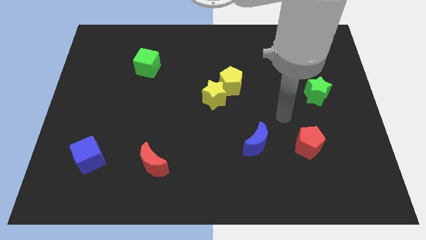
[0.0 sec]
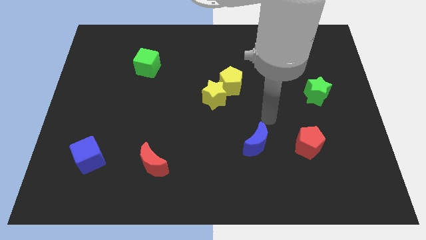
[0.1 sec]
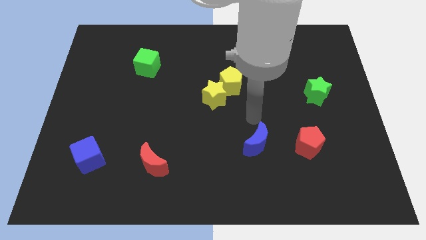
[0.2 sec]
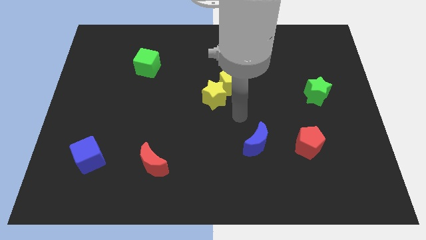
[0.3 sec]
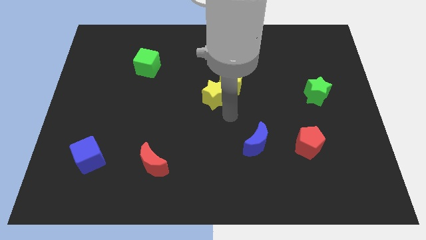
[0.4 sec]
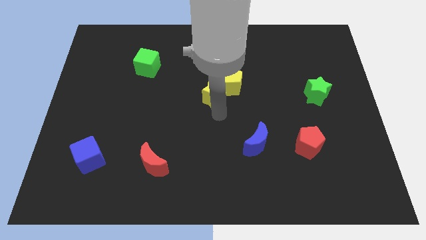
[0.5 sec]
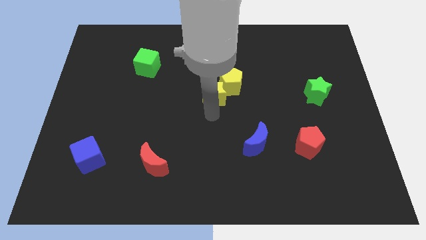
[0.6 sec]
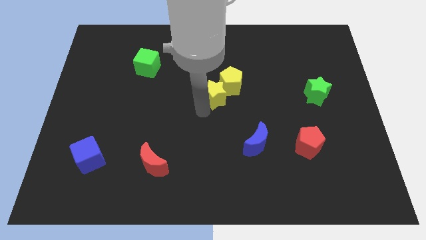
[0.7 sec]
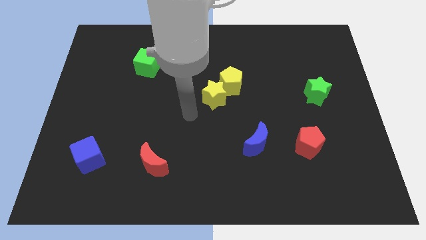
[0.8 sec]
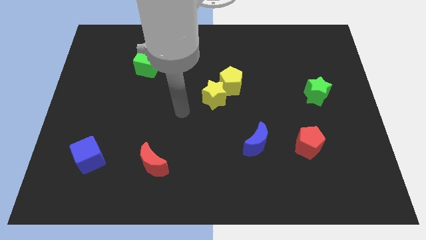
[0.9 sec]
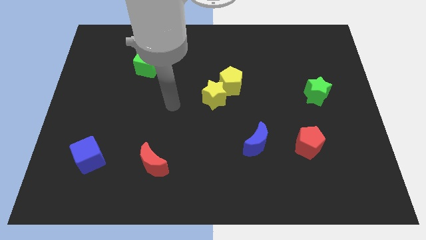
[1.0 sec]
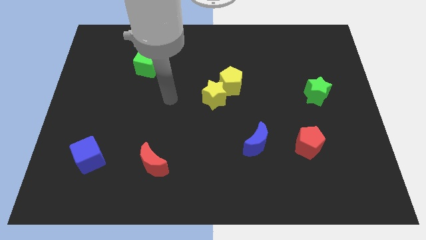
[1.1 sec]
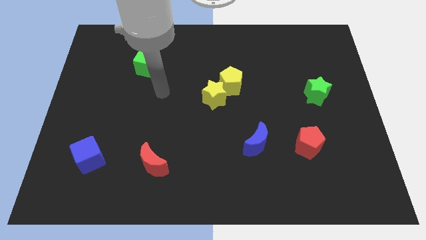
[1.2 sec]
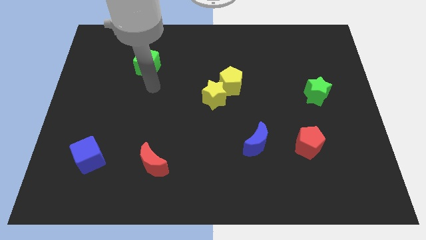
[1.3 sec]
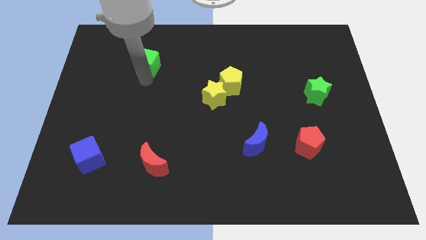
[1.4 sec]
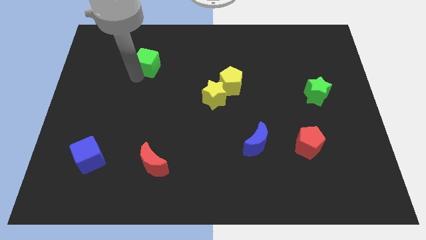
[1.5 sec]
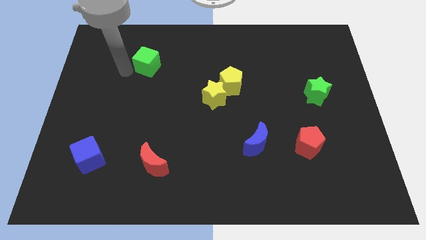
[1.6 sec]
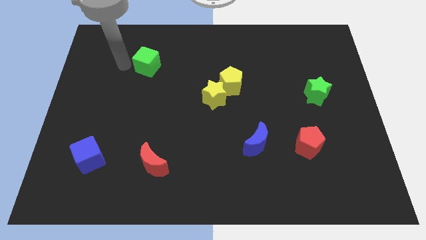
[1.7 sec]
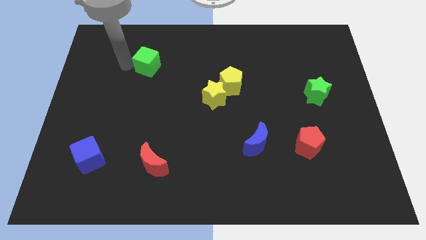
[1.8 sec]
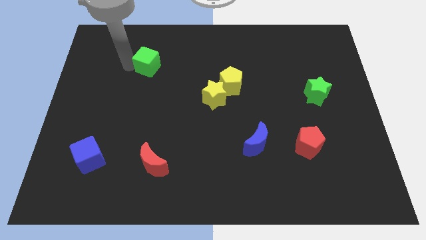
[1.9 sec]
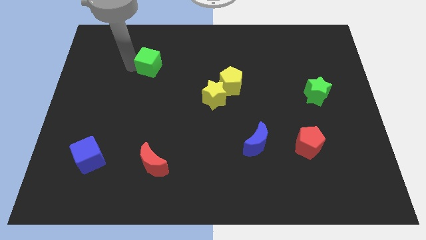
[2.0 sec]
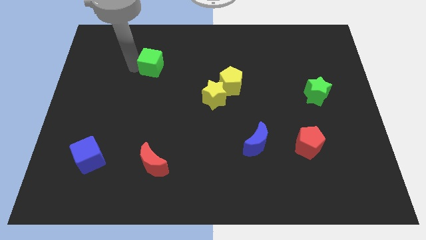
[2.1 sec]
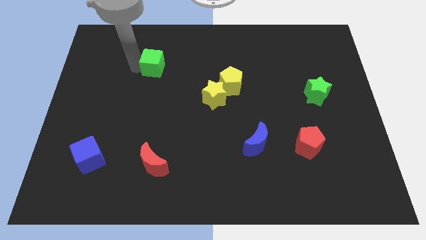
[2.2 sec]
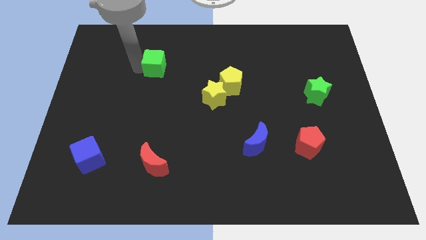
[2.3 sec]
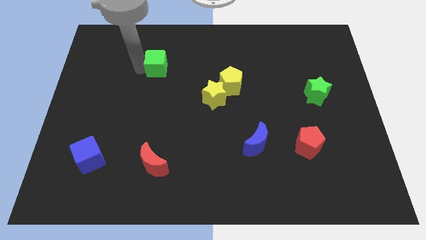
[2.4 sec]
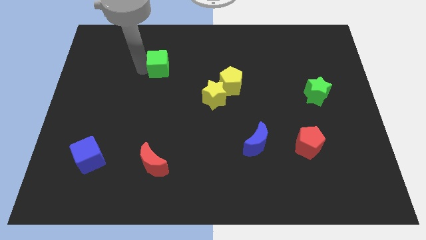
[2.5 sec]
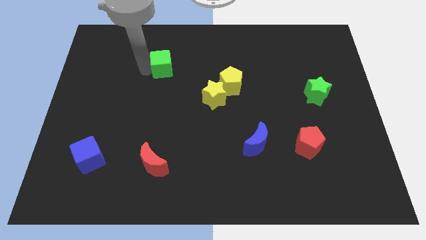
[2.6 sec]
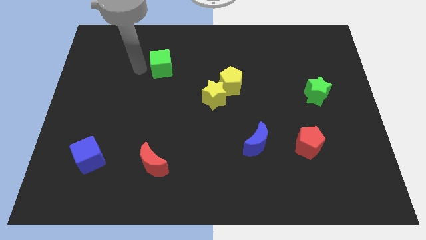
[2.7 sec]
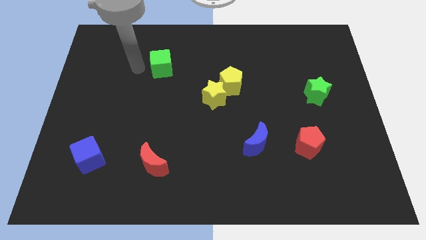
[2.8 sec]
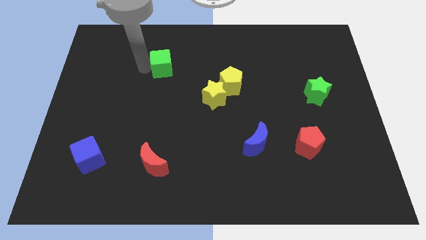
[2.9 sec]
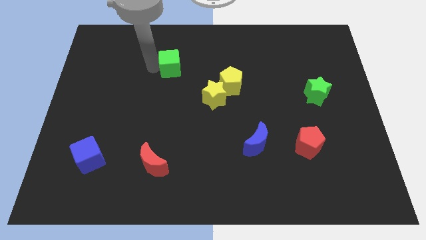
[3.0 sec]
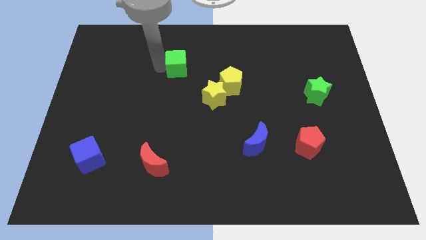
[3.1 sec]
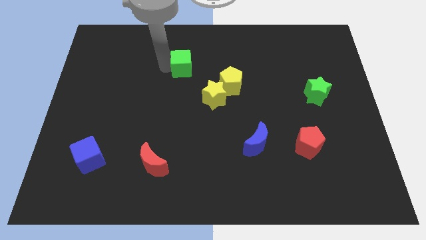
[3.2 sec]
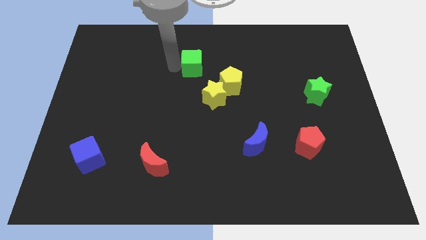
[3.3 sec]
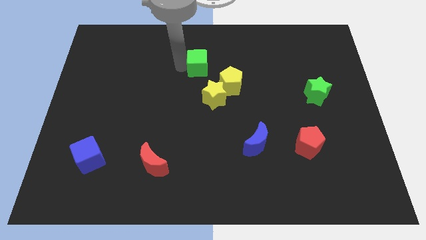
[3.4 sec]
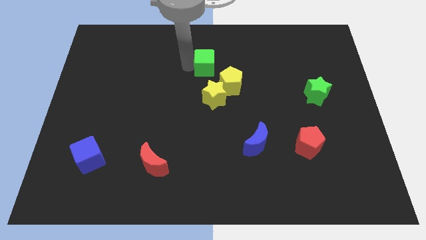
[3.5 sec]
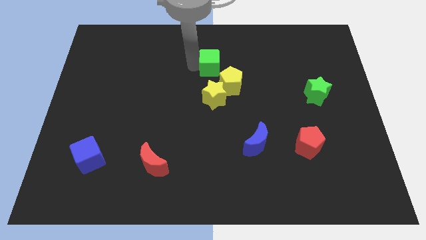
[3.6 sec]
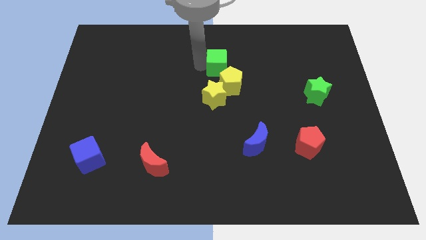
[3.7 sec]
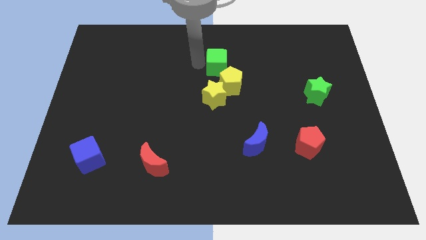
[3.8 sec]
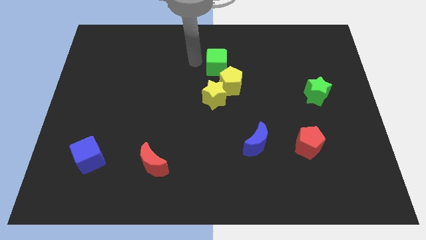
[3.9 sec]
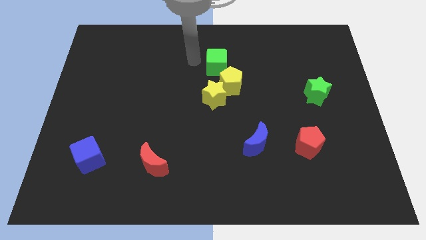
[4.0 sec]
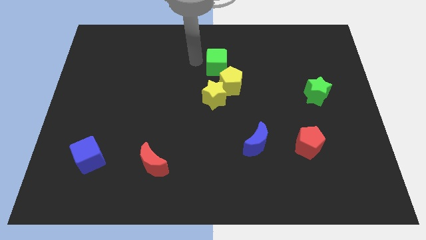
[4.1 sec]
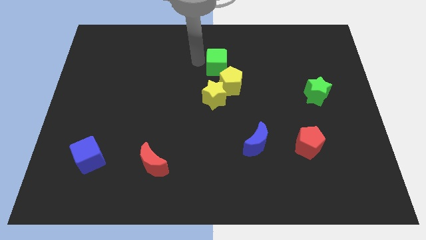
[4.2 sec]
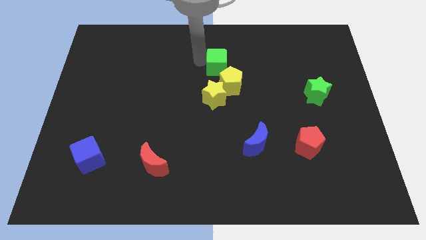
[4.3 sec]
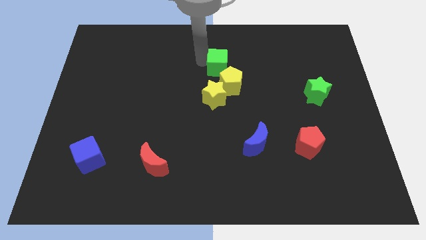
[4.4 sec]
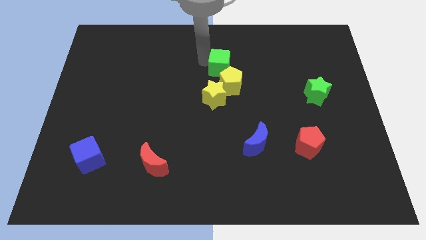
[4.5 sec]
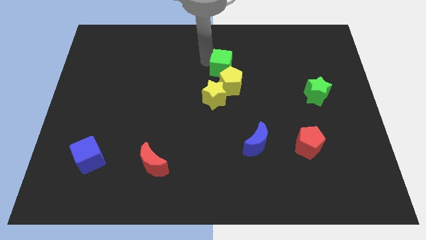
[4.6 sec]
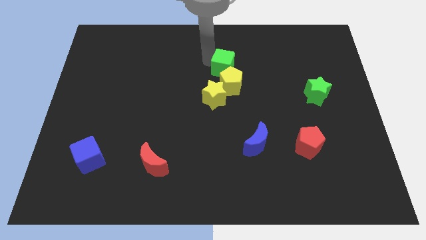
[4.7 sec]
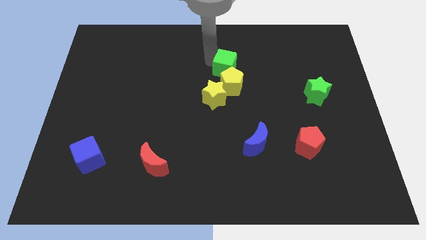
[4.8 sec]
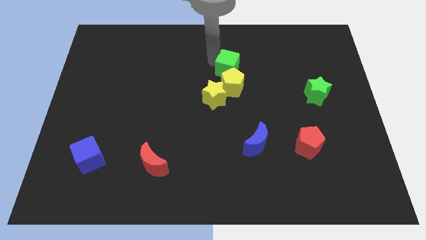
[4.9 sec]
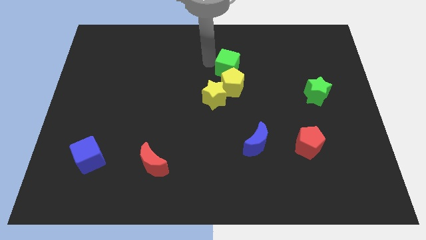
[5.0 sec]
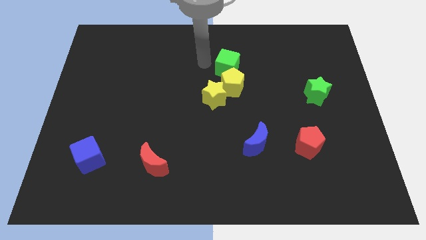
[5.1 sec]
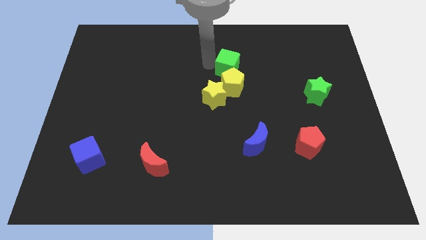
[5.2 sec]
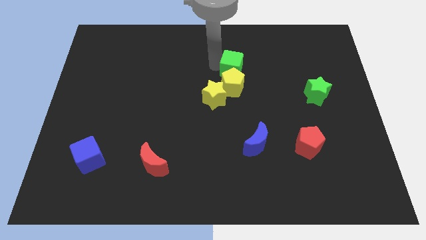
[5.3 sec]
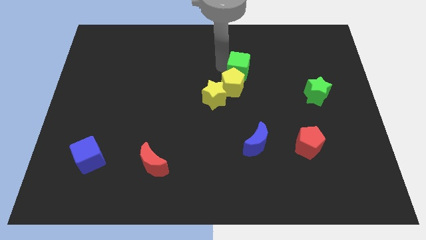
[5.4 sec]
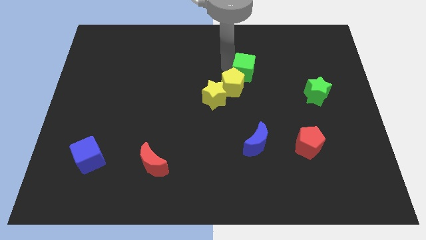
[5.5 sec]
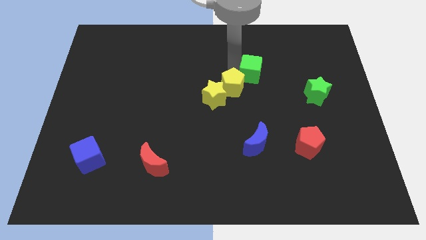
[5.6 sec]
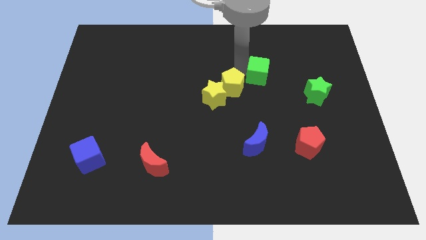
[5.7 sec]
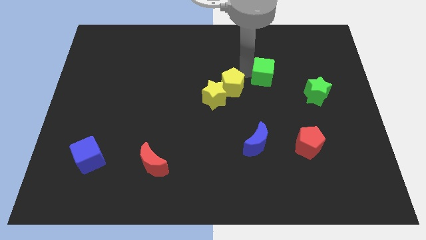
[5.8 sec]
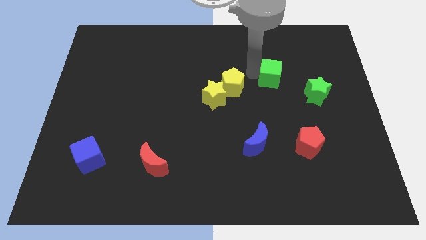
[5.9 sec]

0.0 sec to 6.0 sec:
put the green cube diagonally up and to the left of the green star
